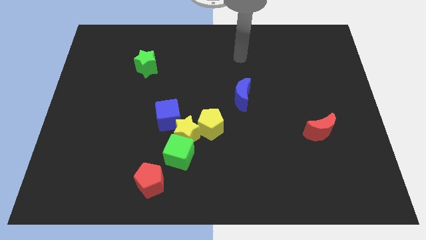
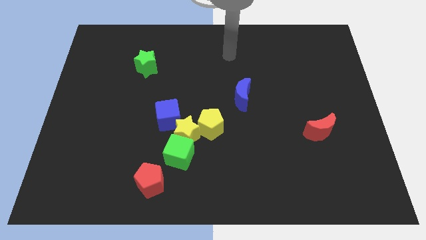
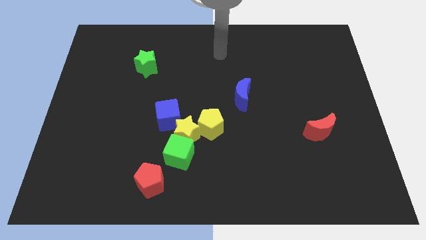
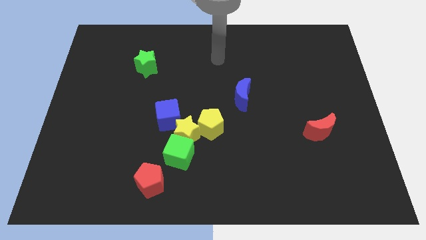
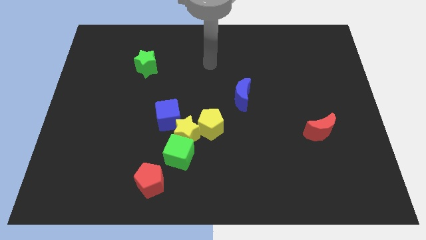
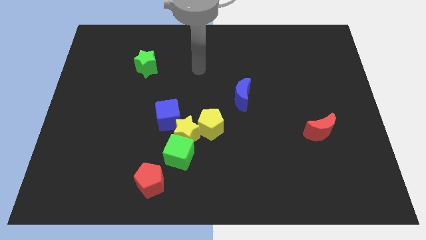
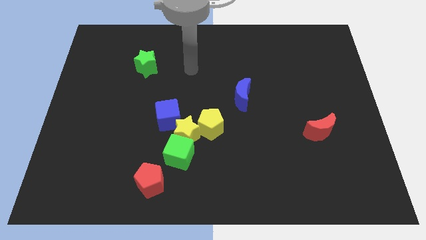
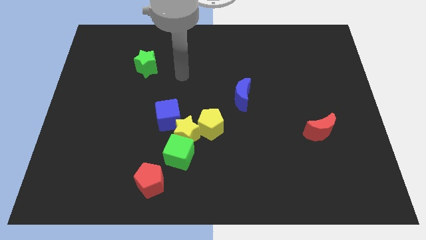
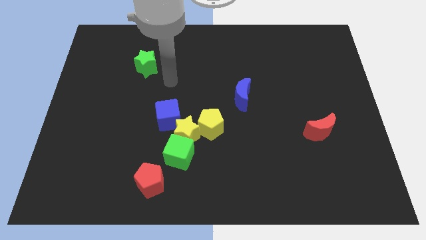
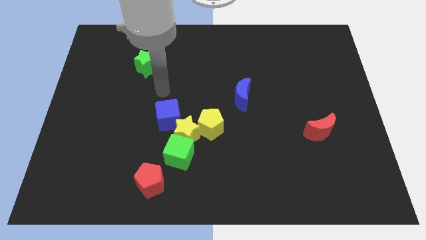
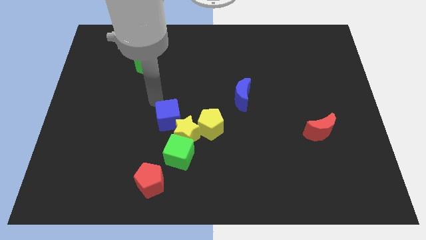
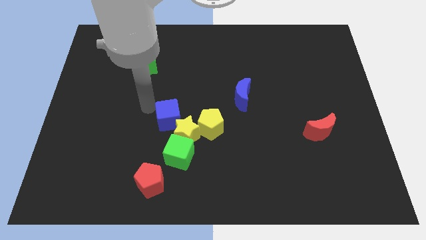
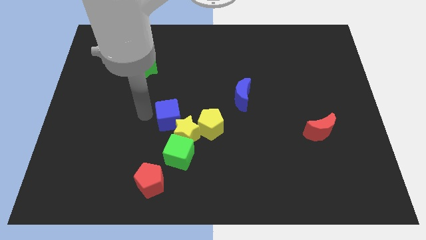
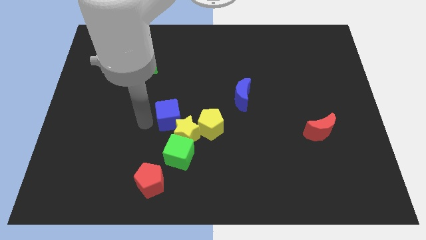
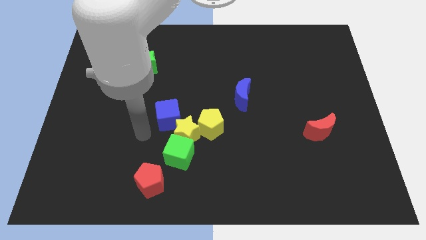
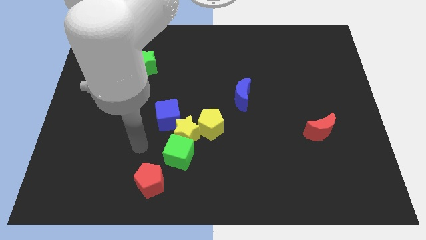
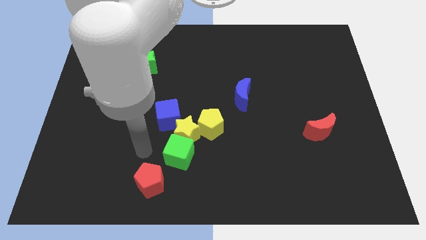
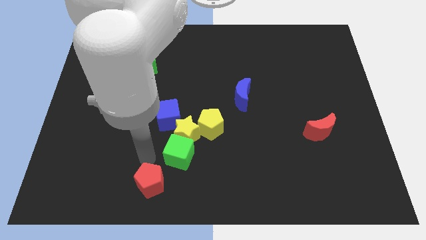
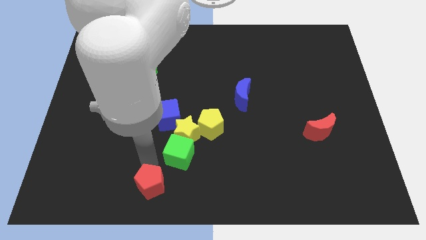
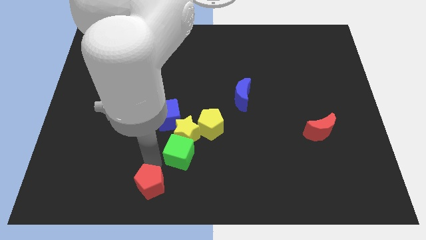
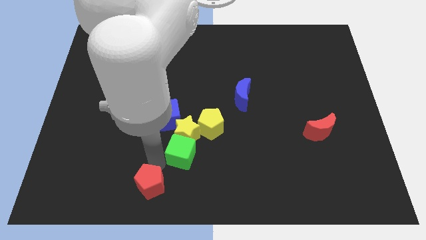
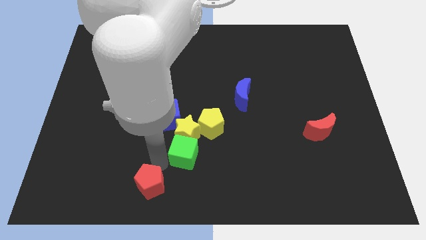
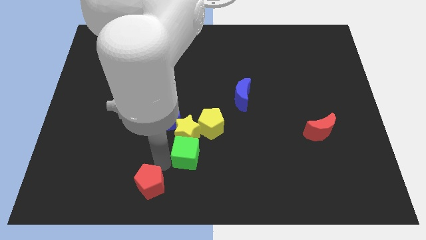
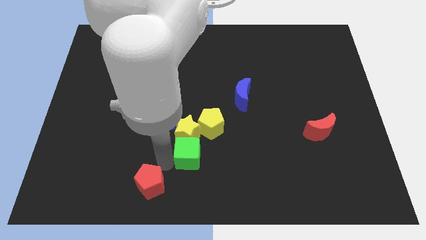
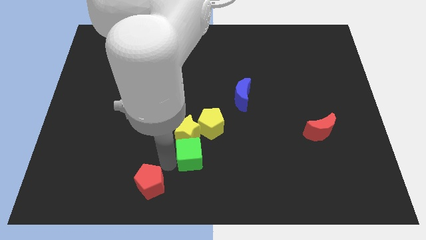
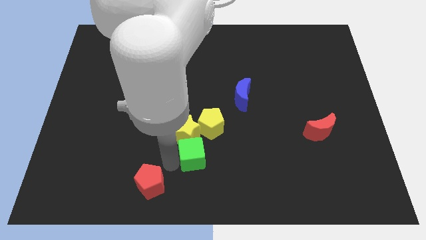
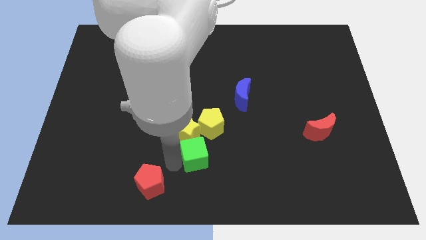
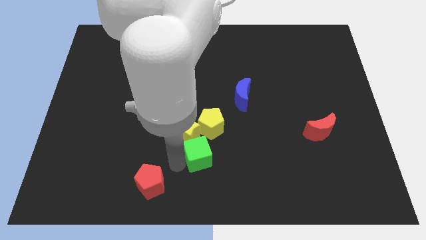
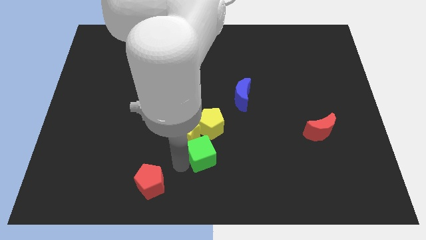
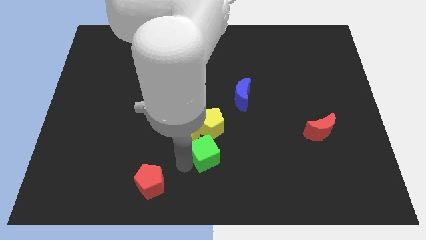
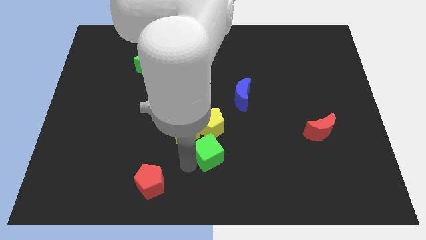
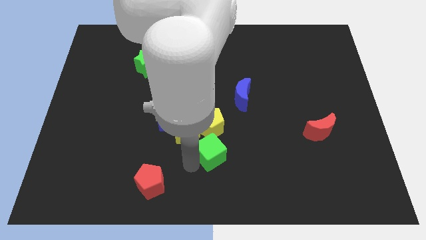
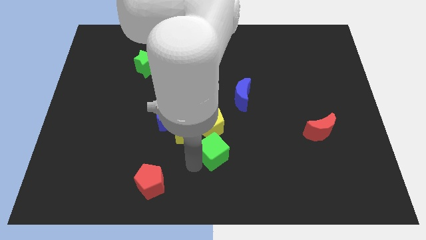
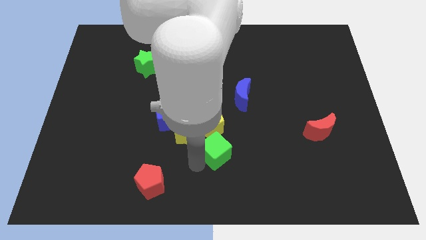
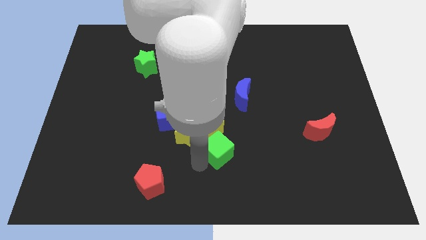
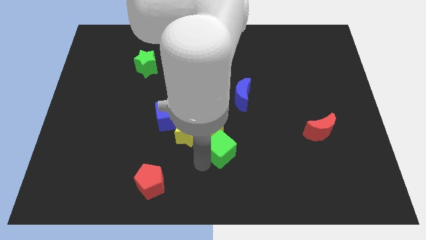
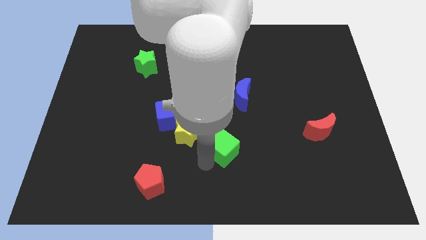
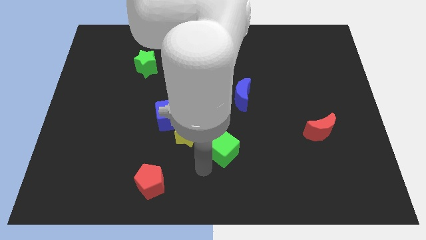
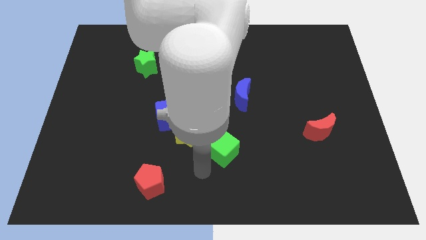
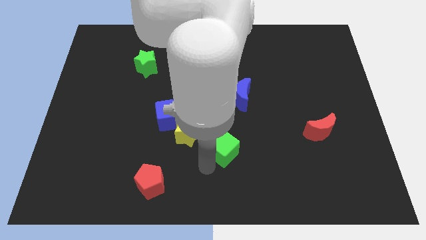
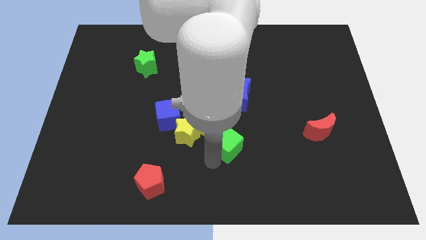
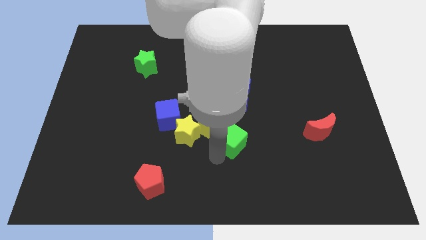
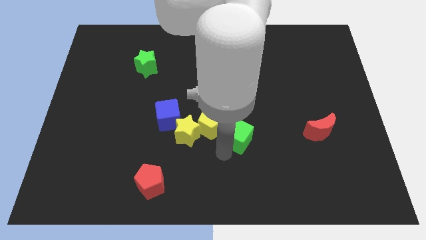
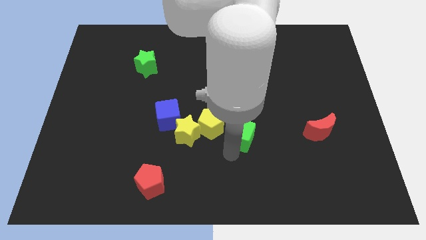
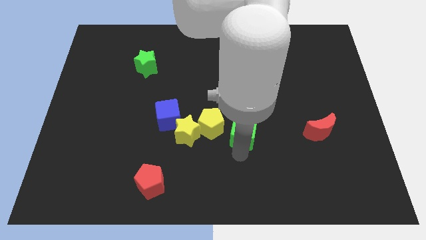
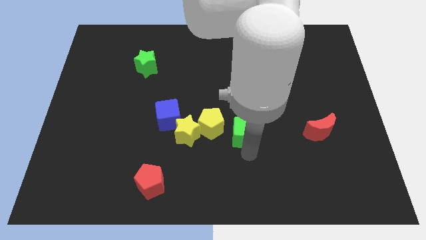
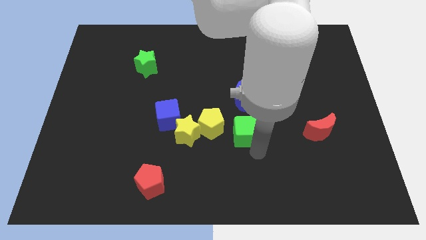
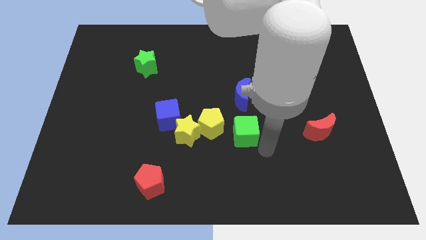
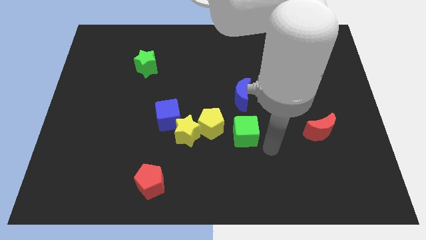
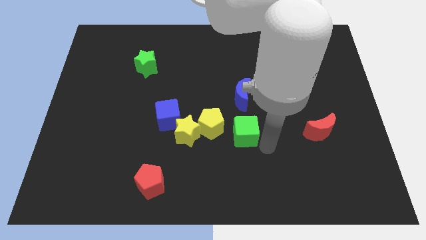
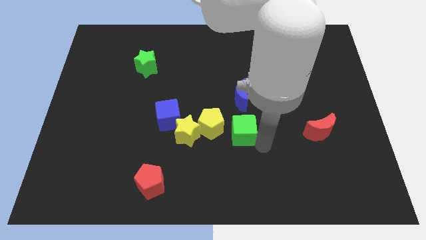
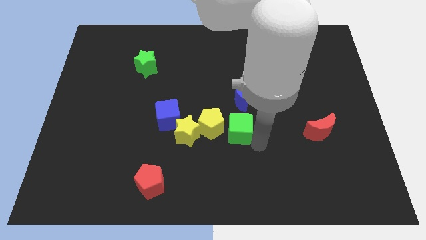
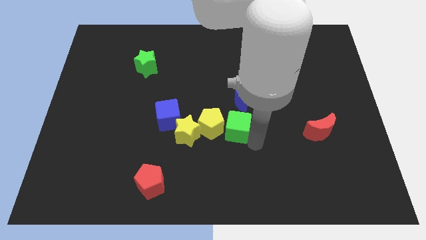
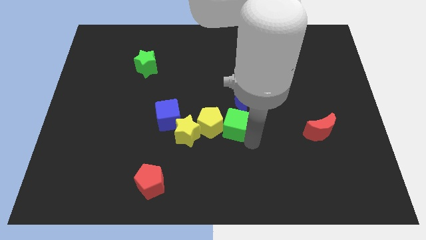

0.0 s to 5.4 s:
slide the green cube right of the blue cube

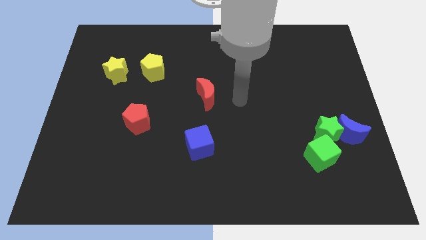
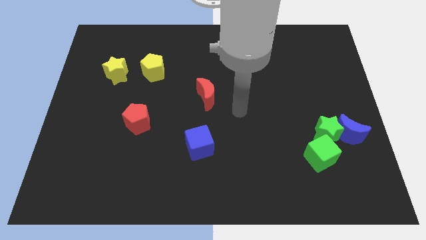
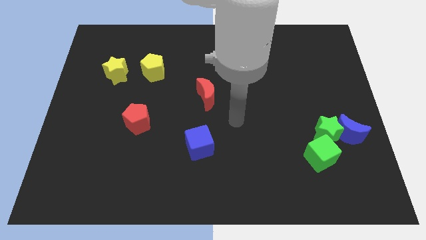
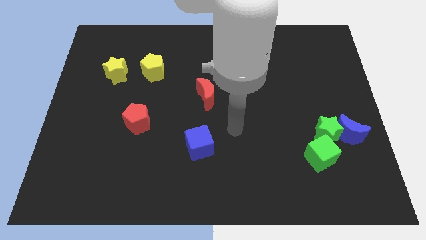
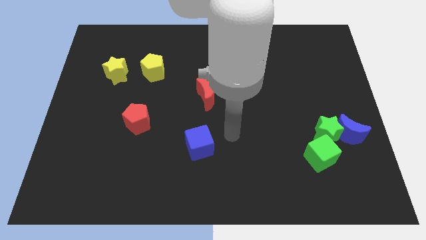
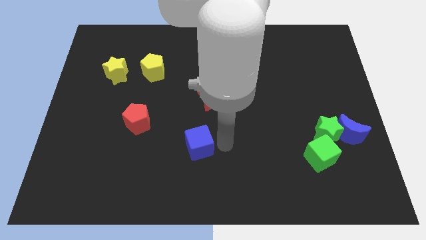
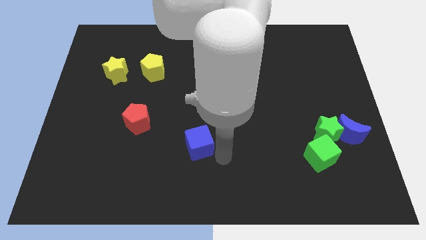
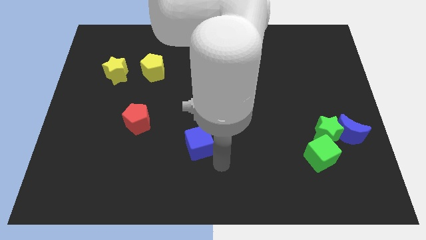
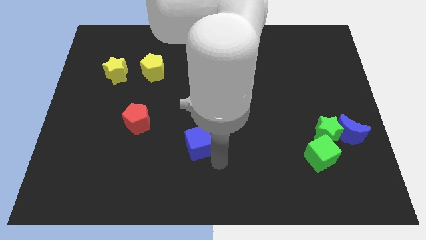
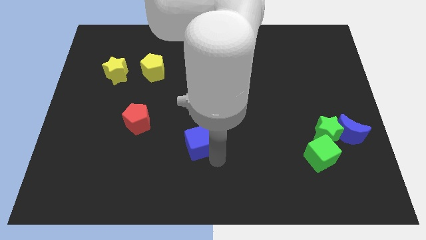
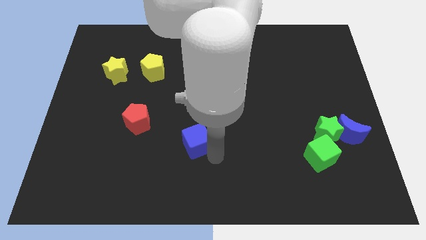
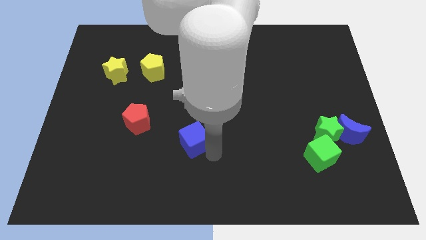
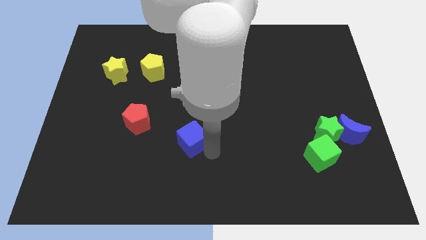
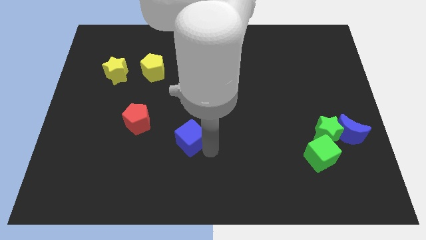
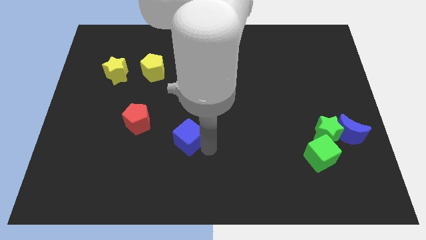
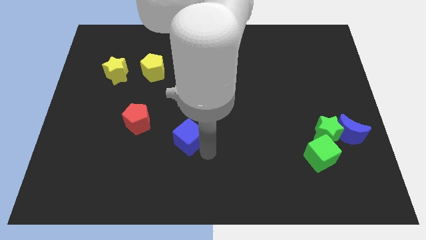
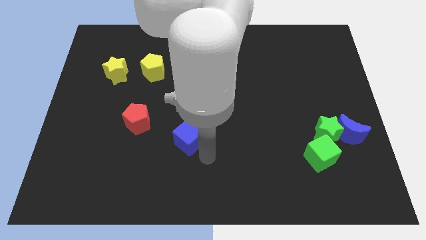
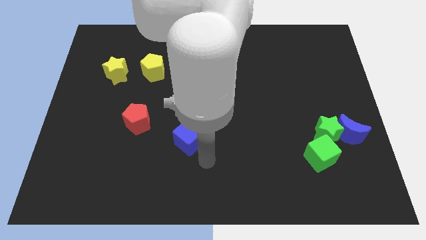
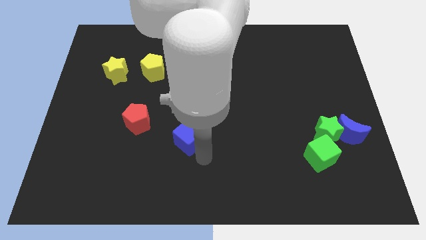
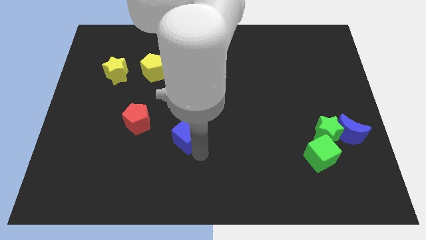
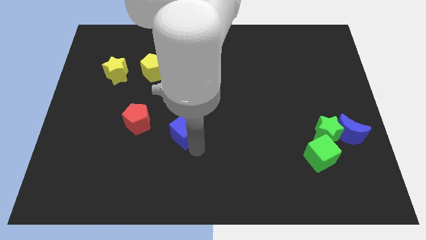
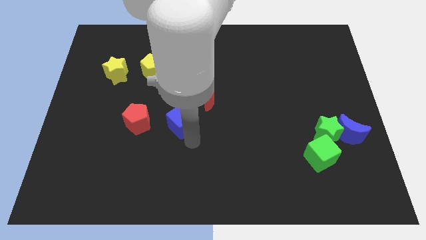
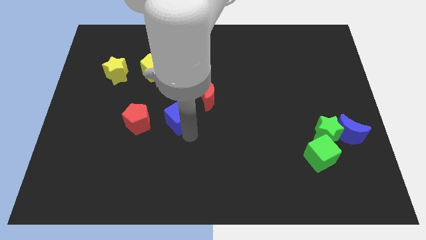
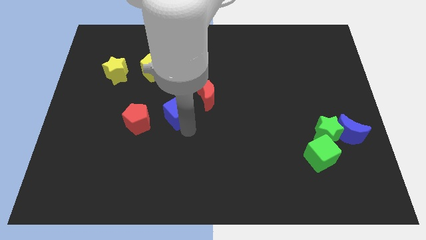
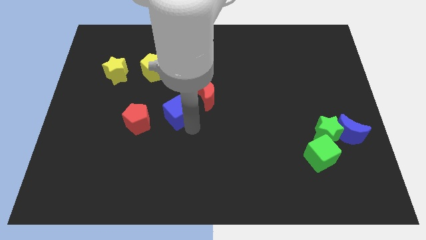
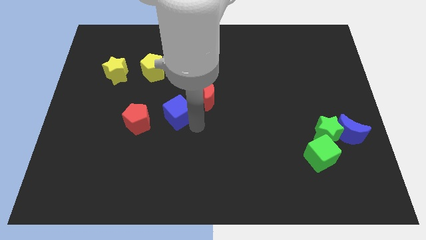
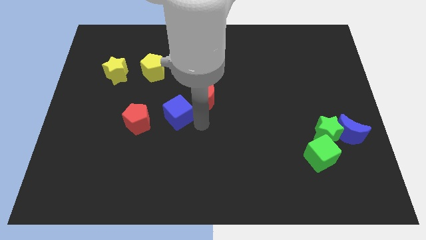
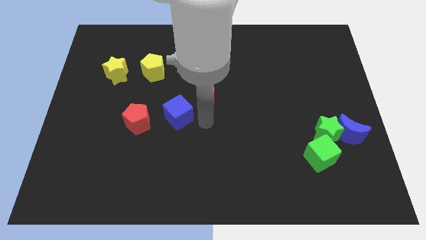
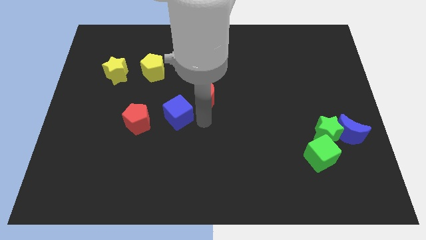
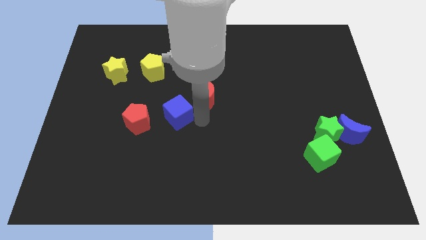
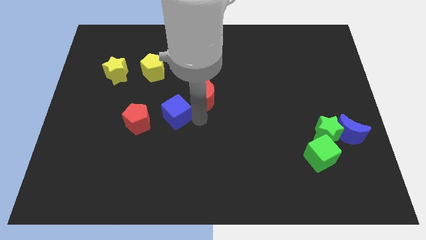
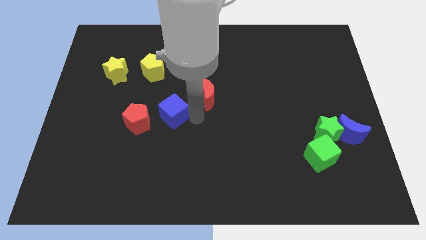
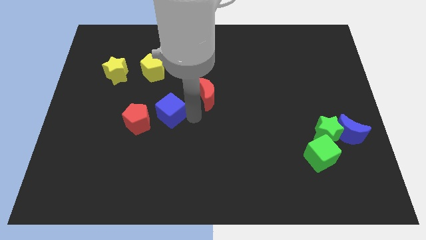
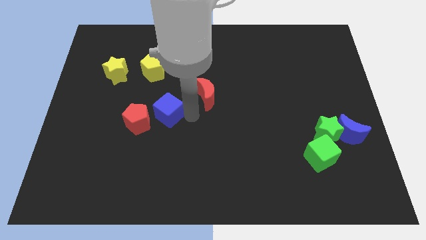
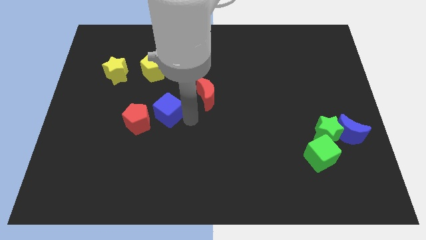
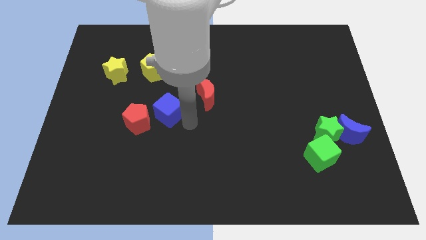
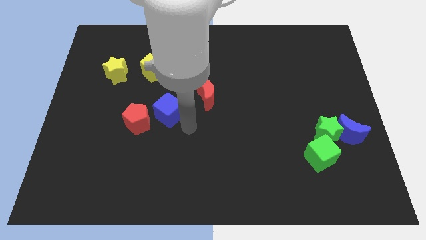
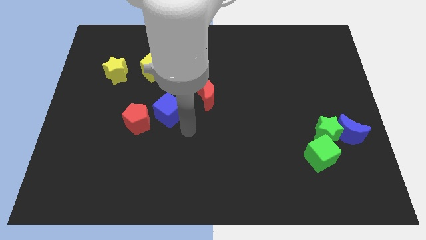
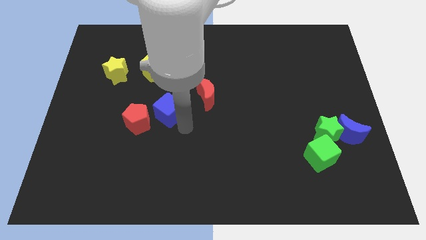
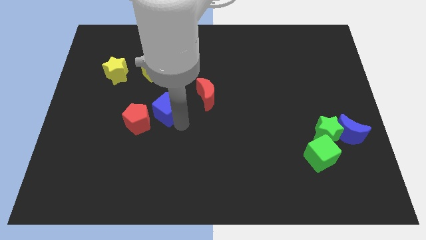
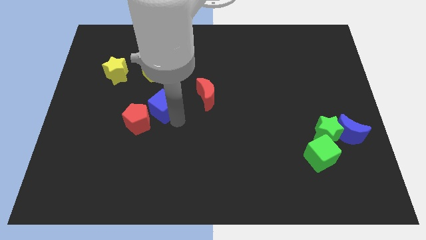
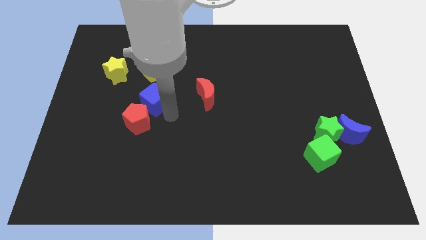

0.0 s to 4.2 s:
push the blue cube to the top side of the red pentagon
